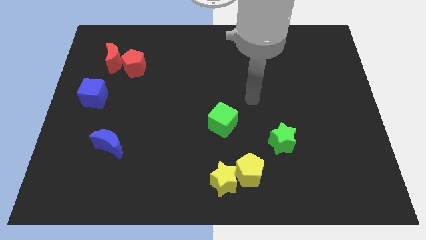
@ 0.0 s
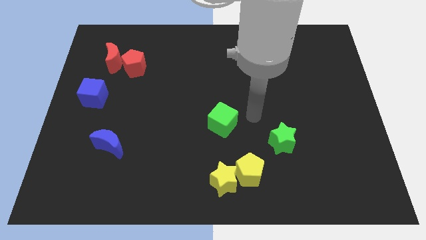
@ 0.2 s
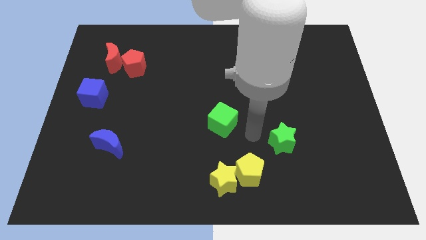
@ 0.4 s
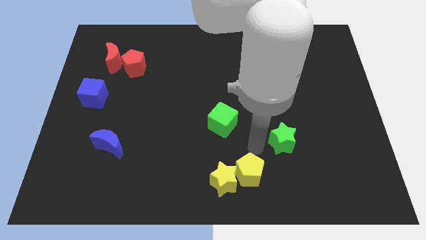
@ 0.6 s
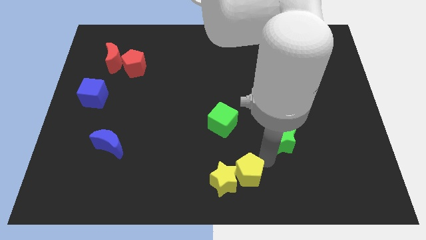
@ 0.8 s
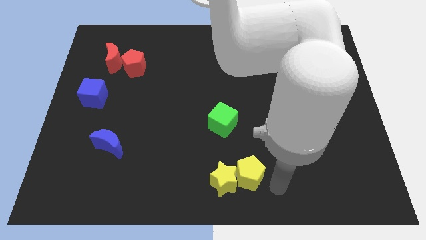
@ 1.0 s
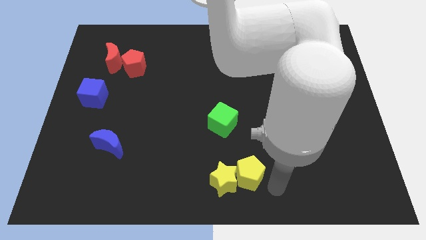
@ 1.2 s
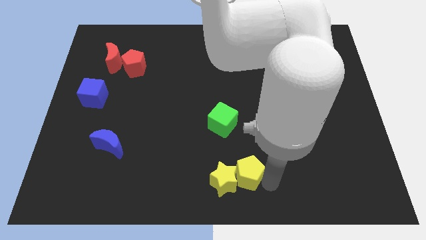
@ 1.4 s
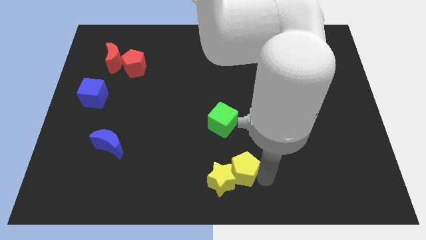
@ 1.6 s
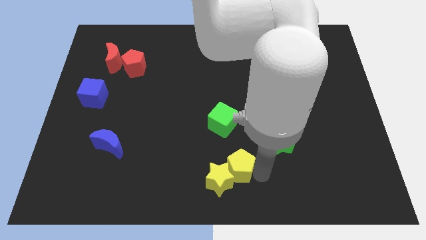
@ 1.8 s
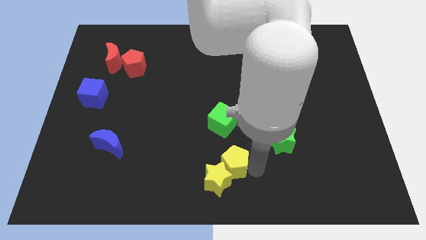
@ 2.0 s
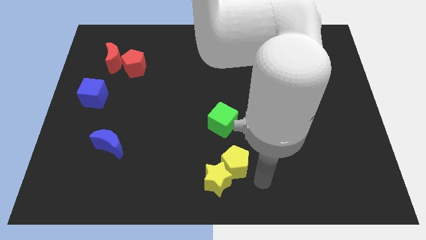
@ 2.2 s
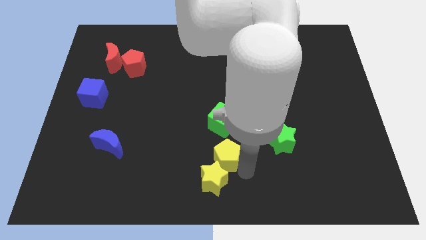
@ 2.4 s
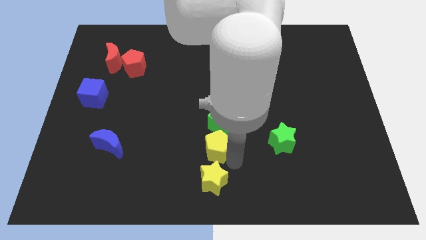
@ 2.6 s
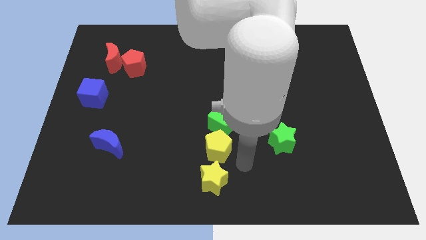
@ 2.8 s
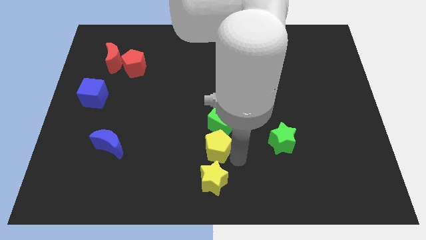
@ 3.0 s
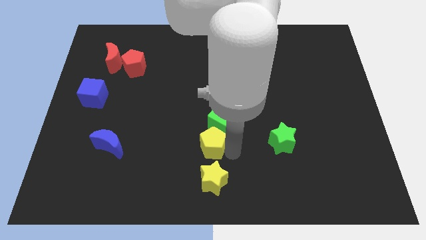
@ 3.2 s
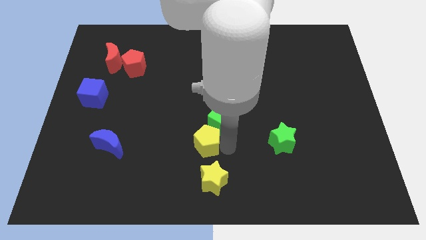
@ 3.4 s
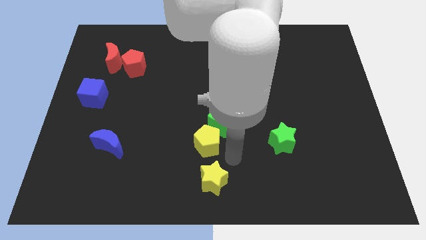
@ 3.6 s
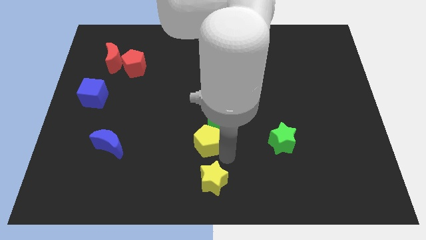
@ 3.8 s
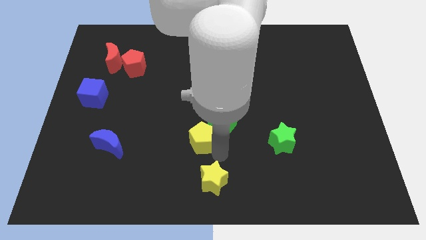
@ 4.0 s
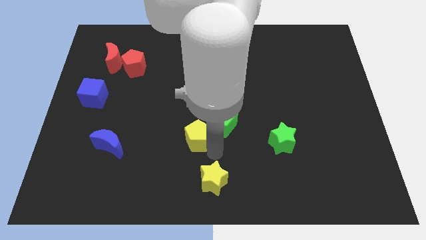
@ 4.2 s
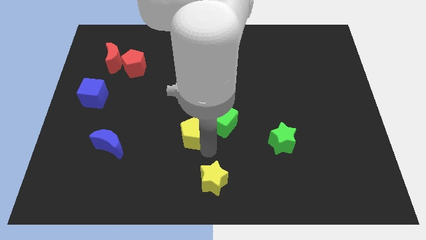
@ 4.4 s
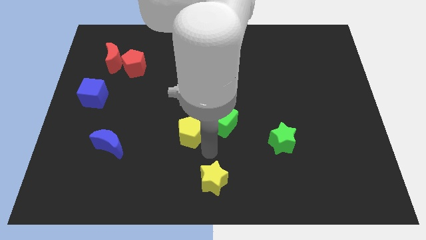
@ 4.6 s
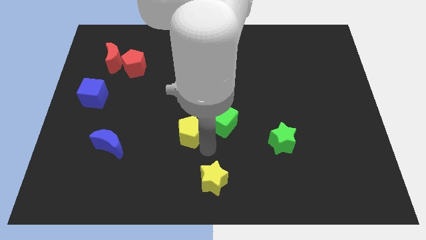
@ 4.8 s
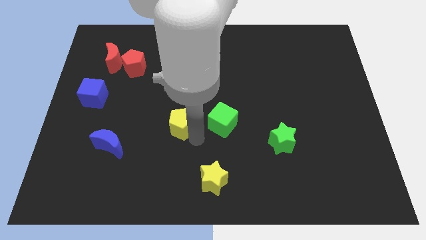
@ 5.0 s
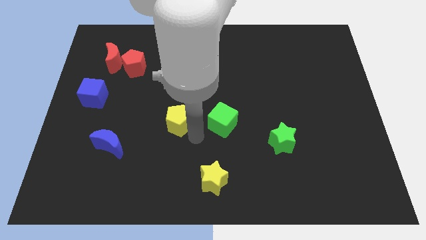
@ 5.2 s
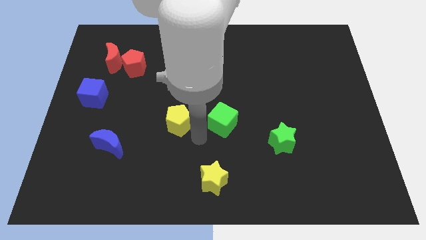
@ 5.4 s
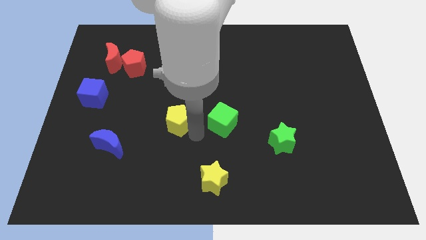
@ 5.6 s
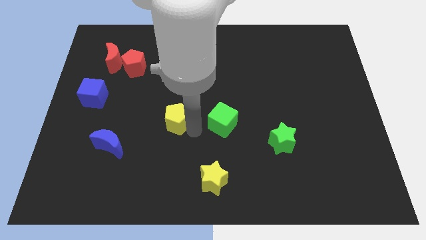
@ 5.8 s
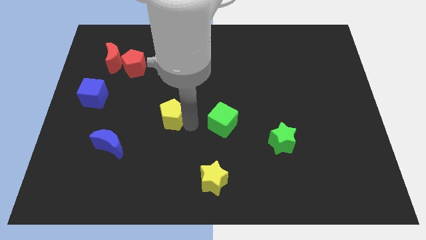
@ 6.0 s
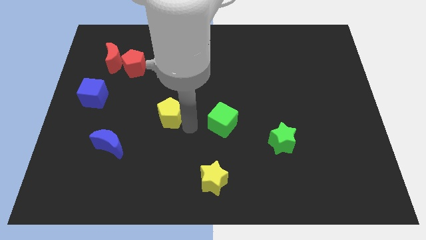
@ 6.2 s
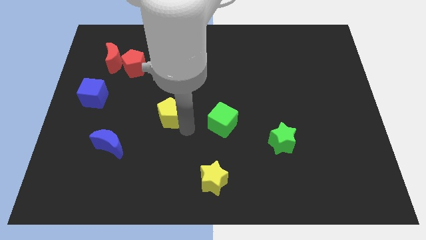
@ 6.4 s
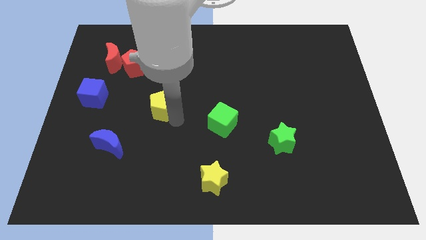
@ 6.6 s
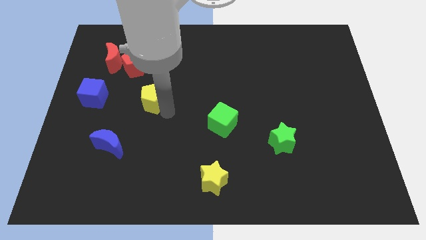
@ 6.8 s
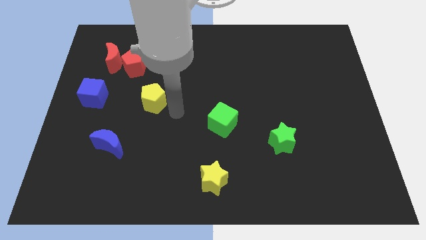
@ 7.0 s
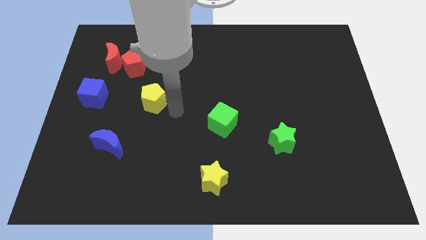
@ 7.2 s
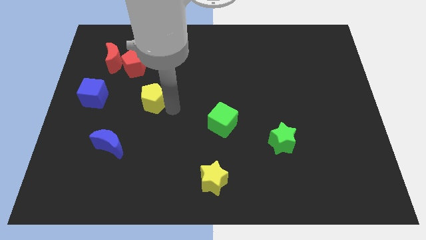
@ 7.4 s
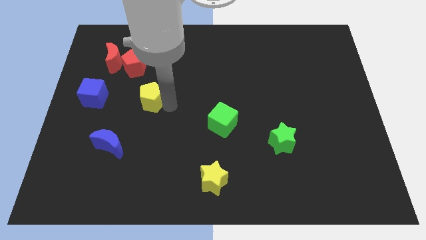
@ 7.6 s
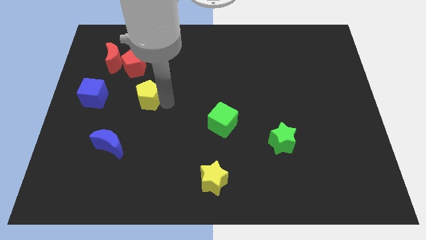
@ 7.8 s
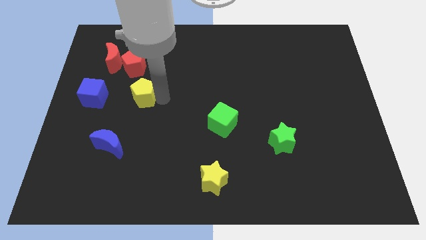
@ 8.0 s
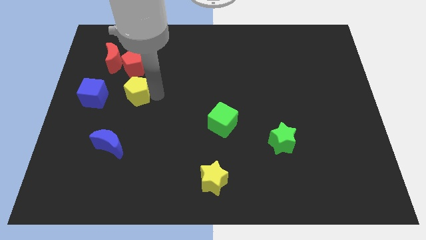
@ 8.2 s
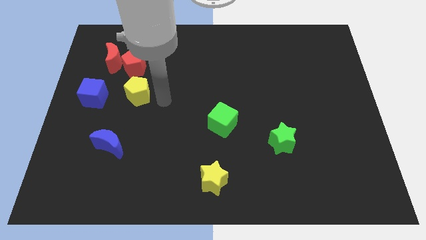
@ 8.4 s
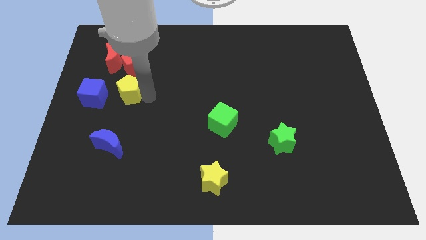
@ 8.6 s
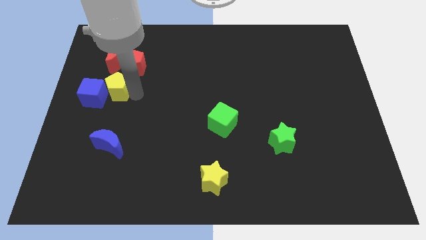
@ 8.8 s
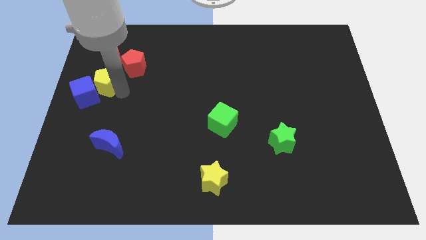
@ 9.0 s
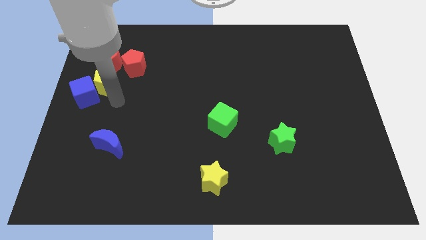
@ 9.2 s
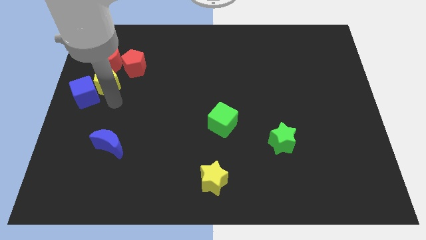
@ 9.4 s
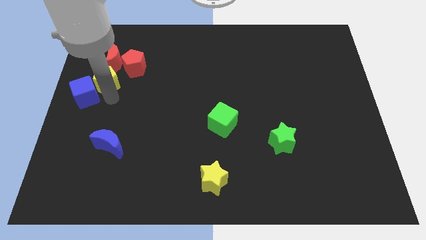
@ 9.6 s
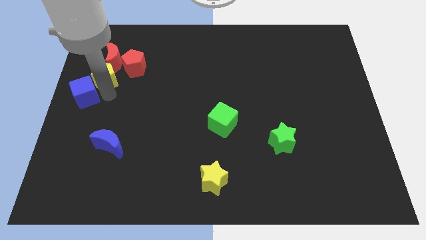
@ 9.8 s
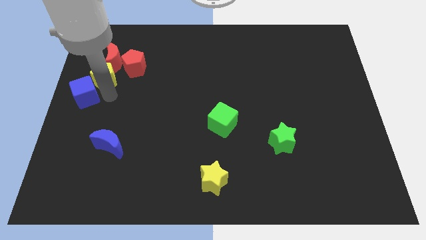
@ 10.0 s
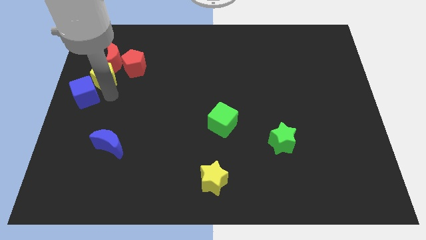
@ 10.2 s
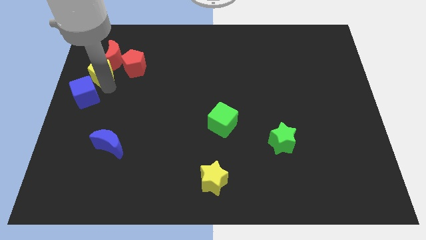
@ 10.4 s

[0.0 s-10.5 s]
slide the yellow pentagon next to the red moon

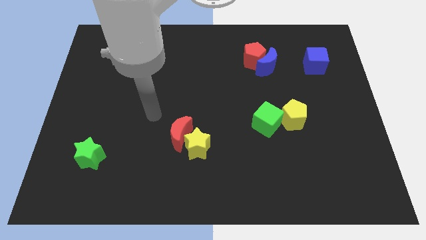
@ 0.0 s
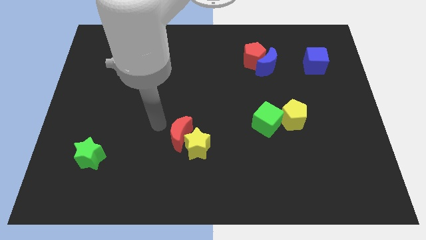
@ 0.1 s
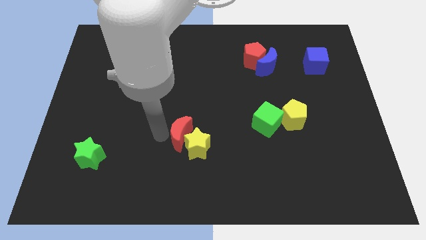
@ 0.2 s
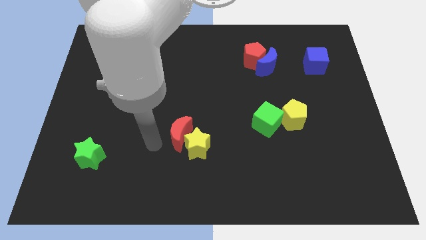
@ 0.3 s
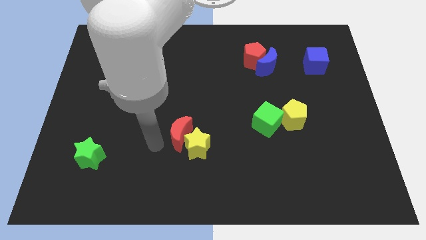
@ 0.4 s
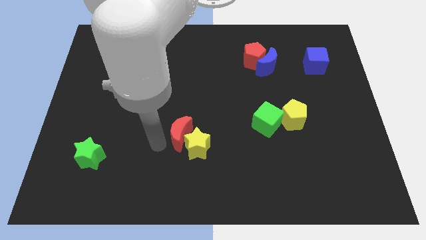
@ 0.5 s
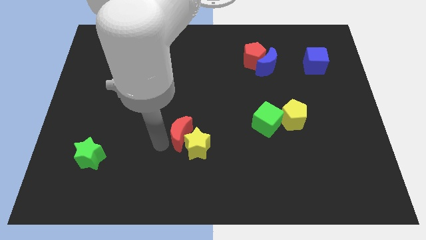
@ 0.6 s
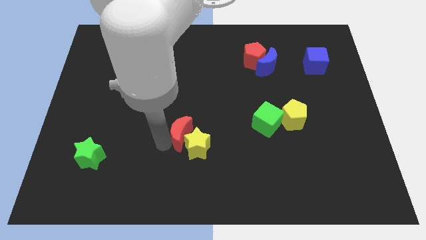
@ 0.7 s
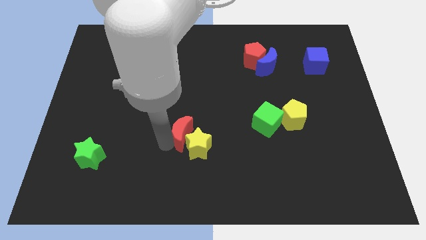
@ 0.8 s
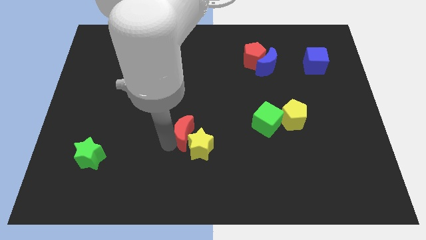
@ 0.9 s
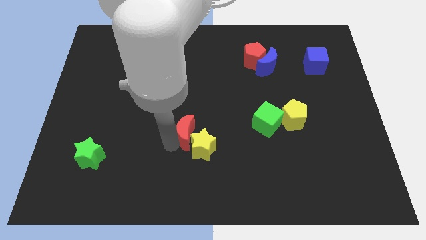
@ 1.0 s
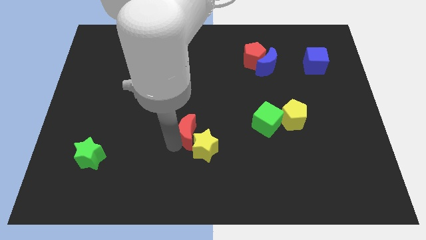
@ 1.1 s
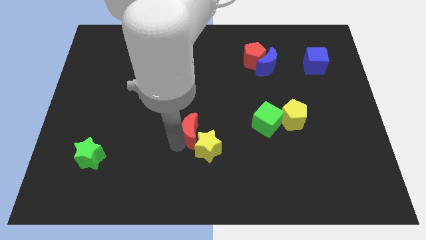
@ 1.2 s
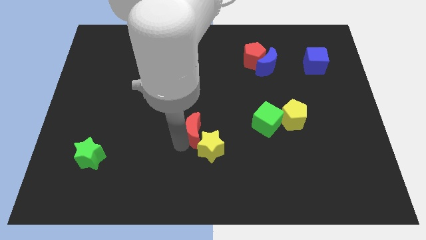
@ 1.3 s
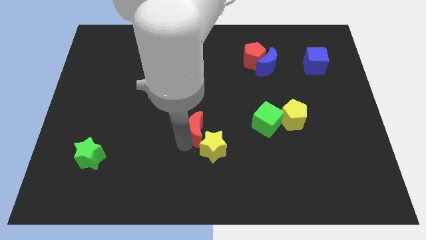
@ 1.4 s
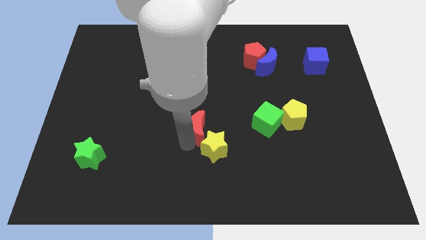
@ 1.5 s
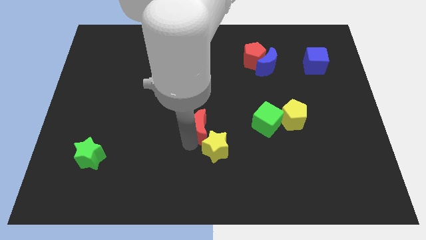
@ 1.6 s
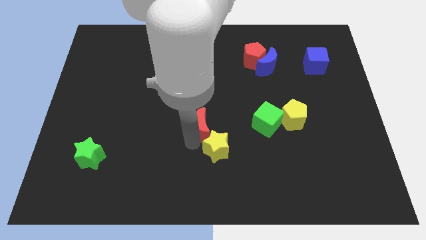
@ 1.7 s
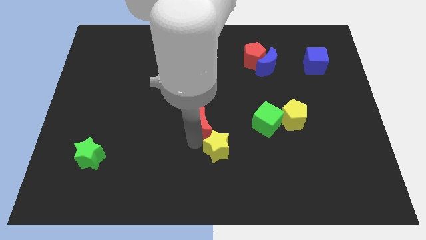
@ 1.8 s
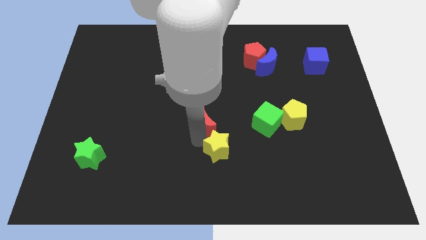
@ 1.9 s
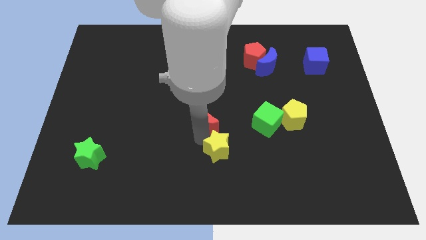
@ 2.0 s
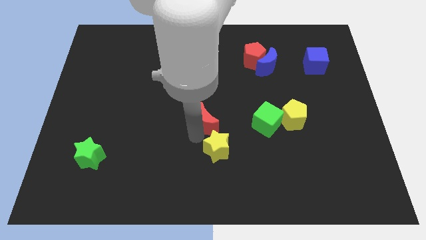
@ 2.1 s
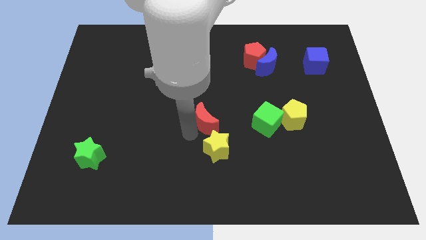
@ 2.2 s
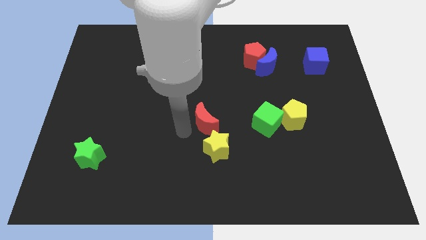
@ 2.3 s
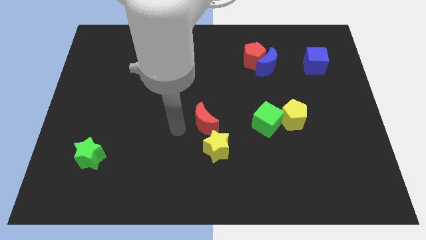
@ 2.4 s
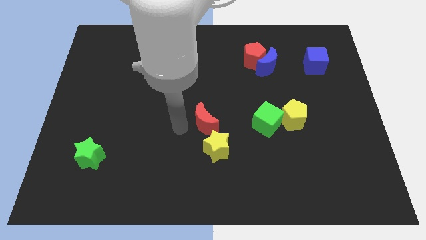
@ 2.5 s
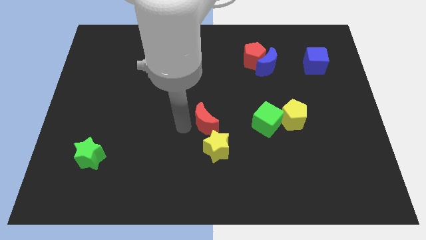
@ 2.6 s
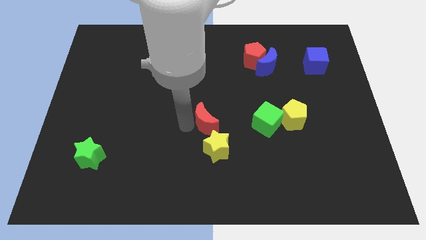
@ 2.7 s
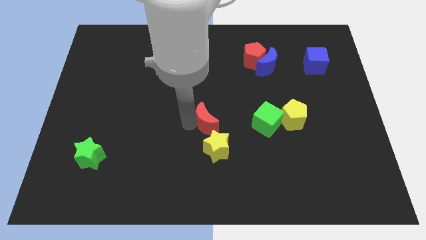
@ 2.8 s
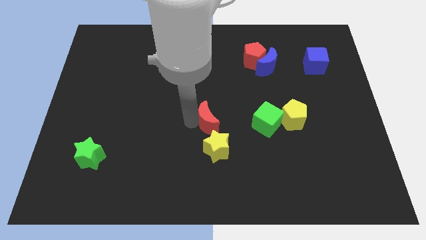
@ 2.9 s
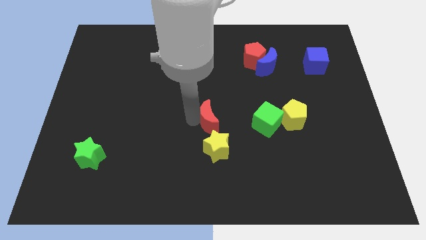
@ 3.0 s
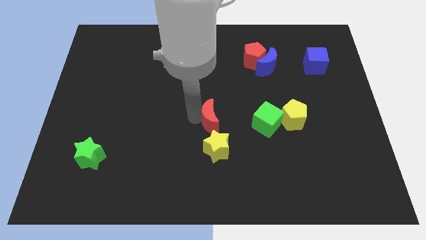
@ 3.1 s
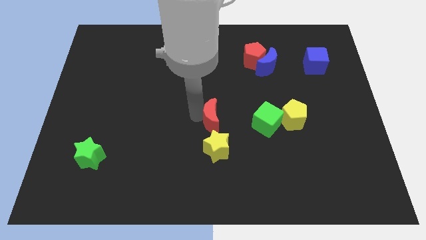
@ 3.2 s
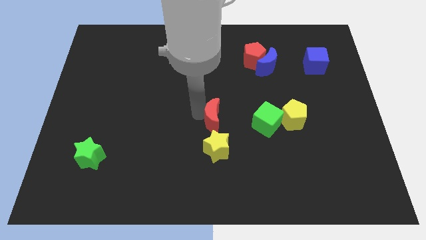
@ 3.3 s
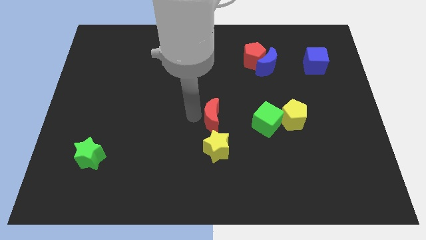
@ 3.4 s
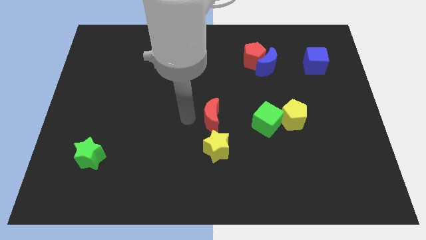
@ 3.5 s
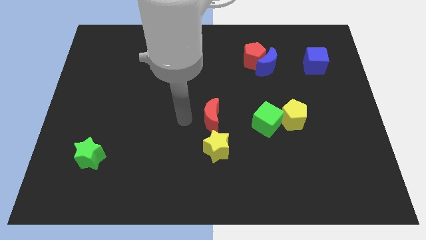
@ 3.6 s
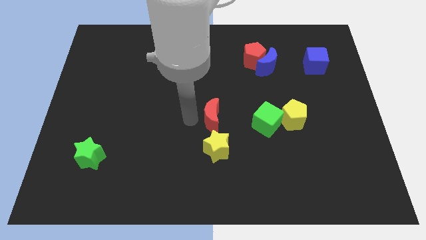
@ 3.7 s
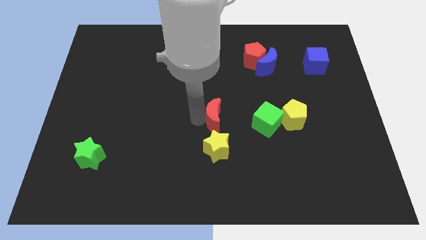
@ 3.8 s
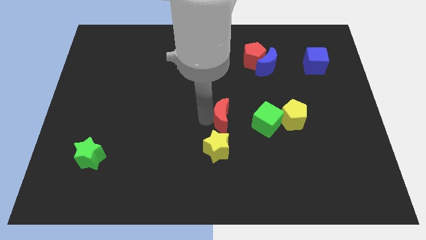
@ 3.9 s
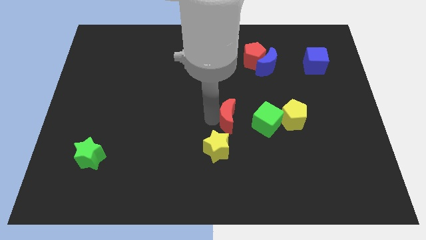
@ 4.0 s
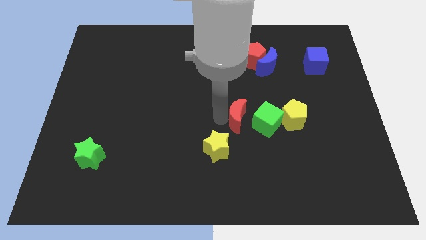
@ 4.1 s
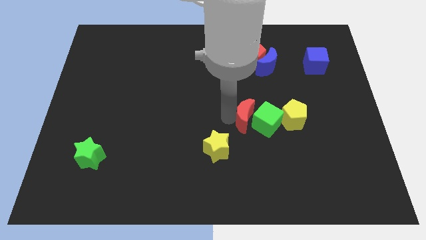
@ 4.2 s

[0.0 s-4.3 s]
slide the red moon close to the green cube
